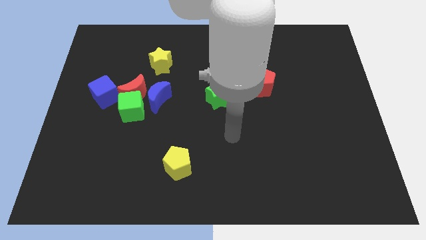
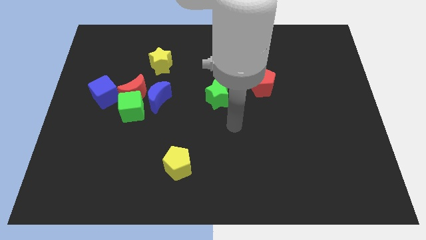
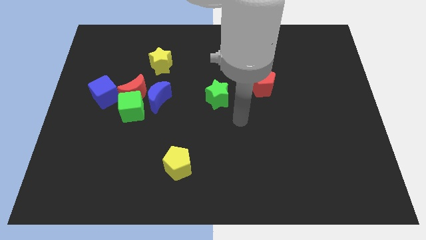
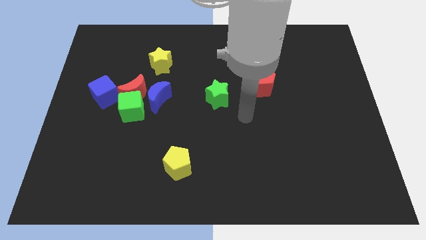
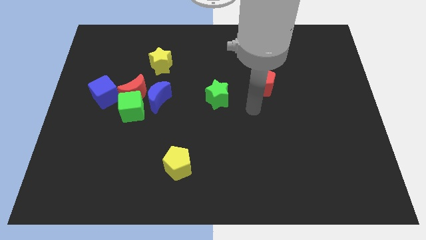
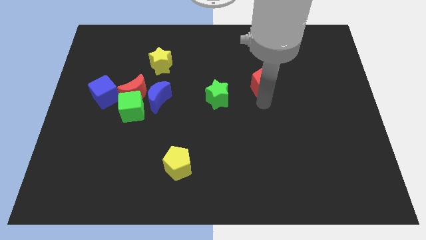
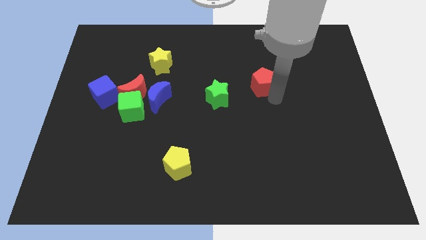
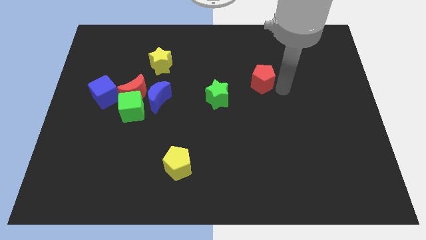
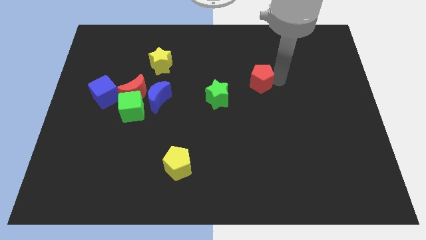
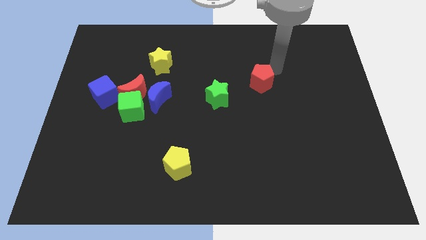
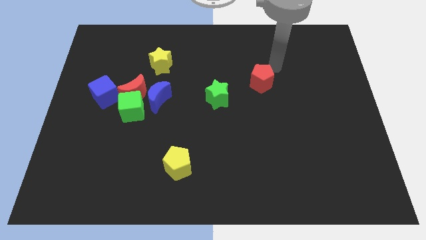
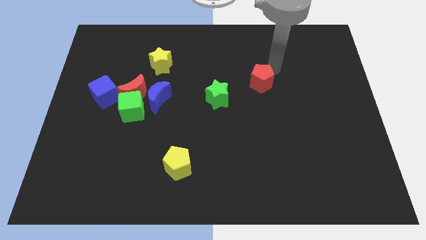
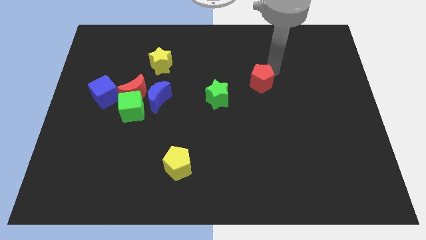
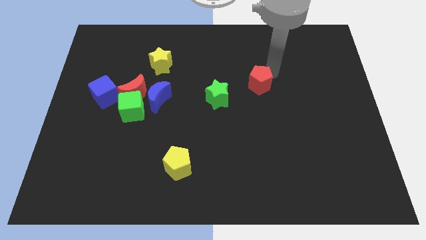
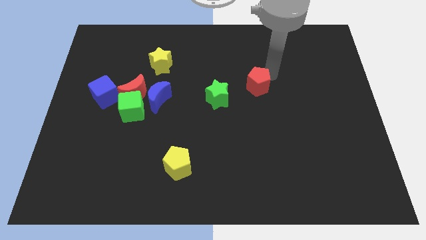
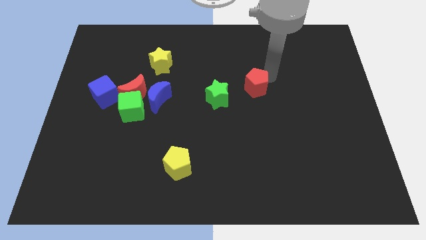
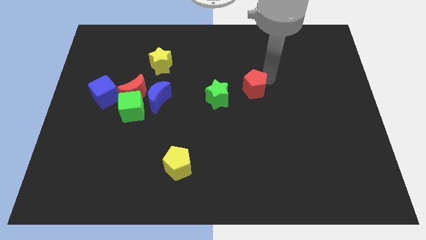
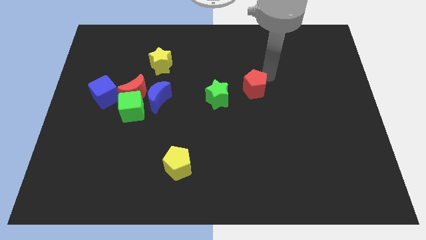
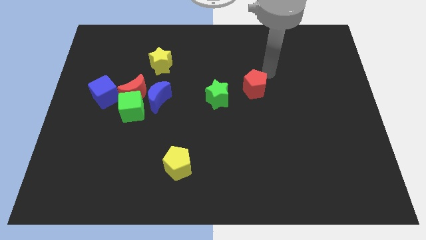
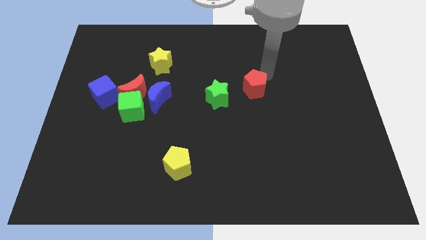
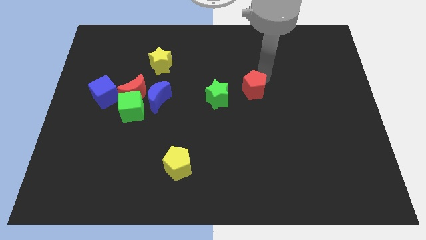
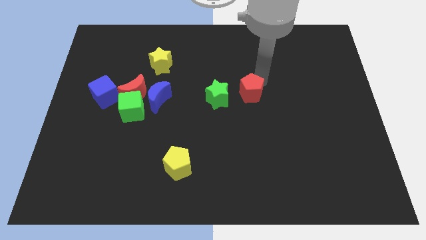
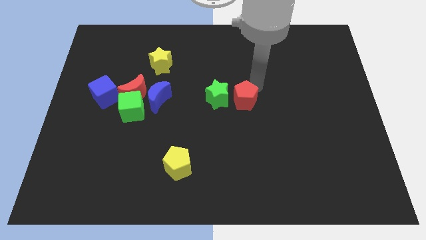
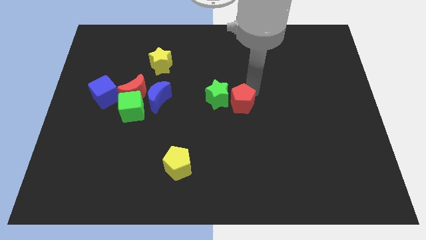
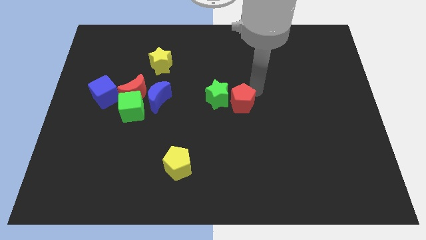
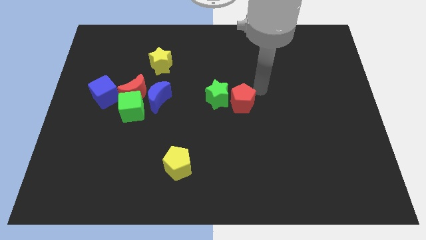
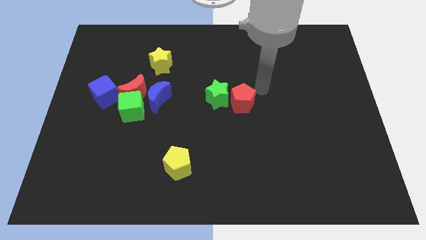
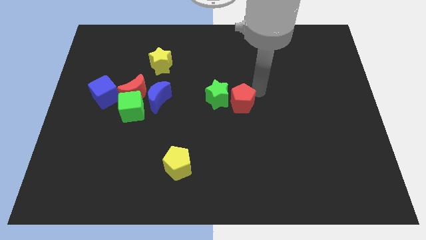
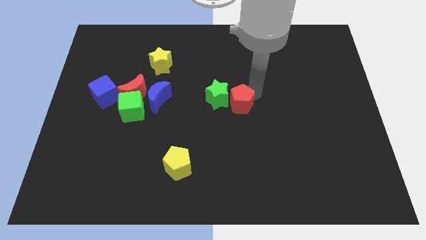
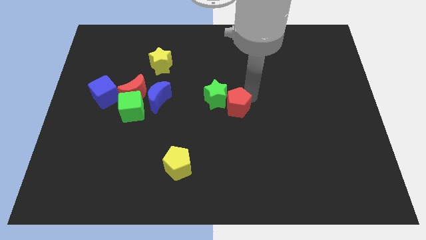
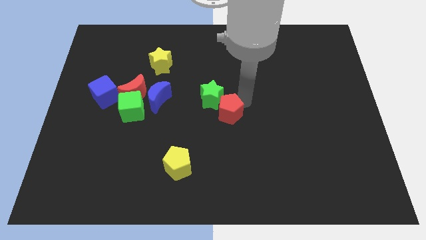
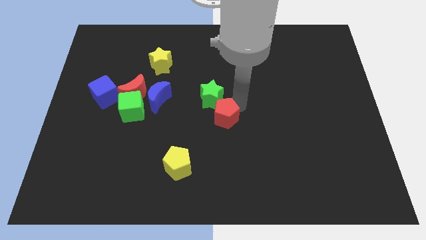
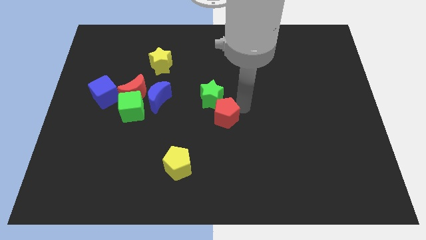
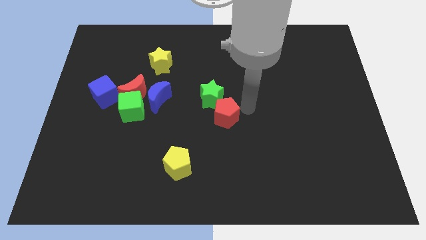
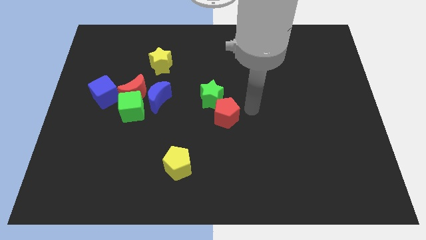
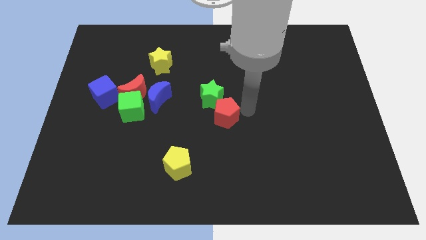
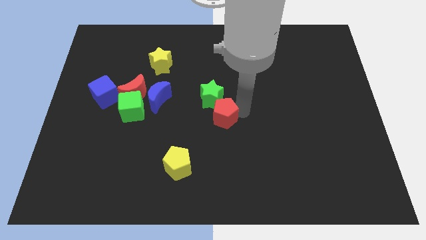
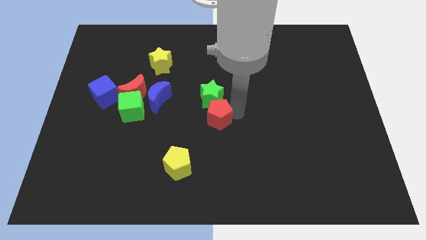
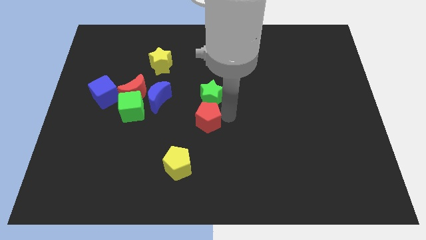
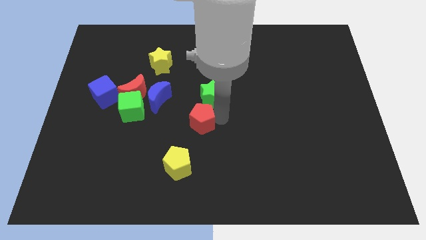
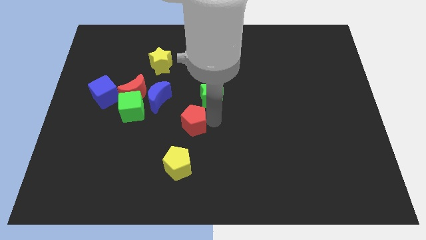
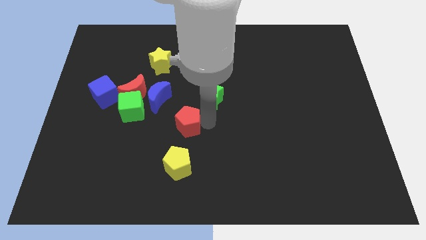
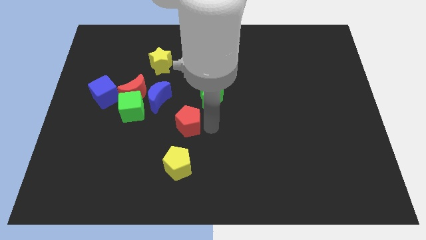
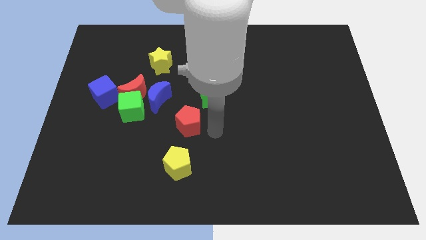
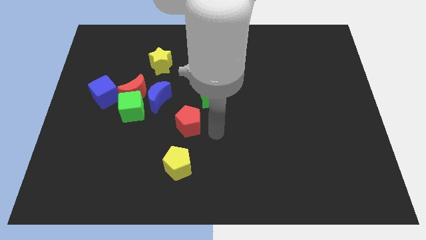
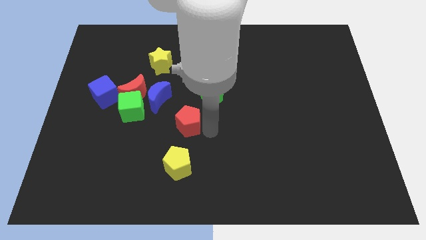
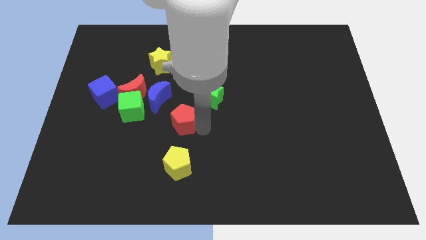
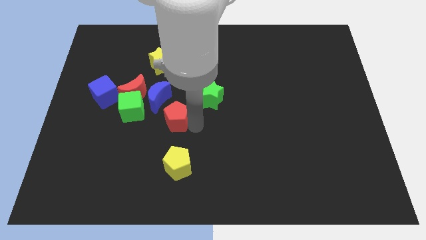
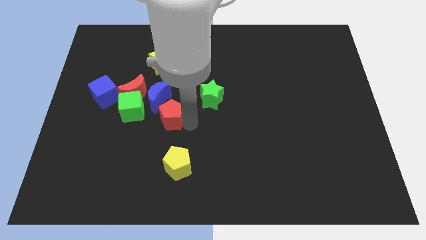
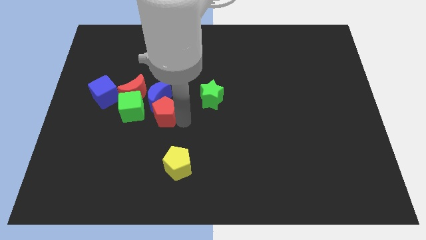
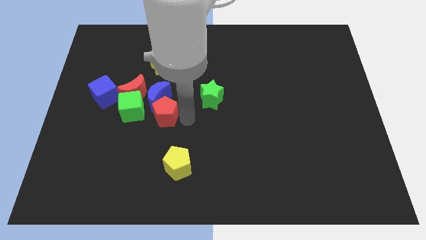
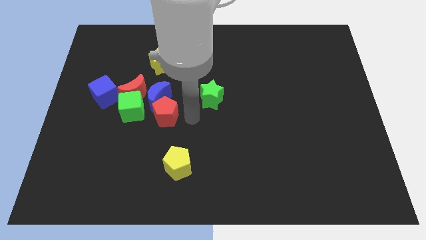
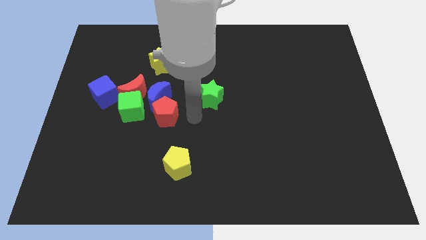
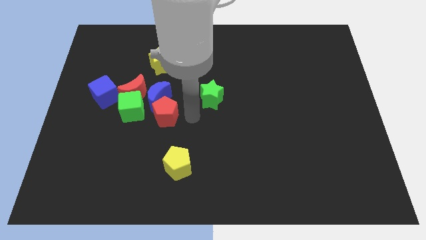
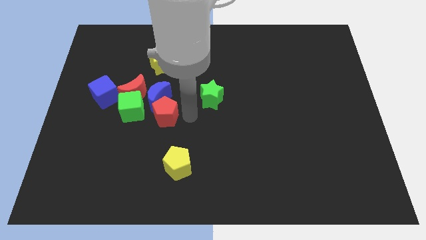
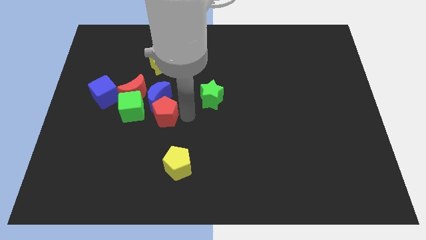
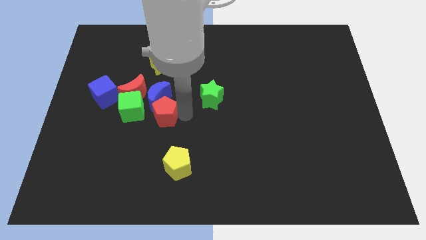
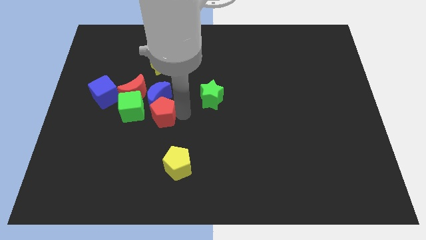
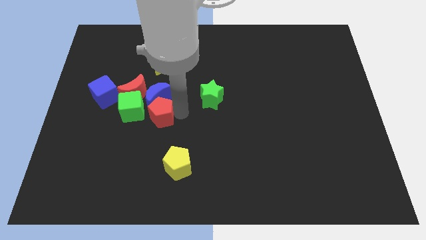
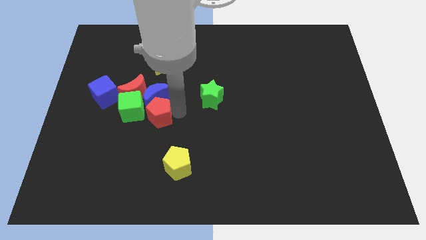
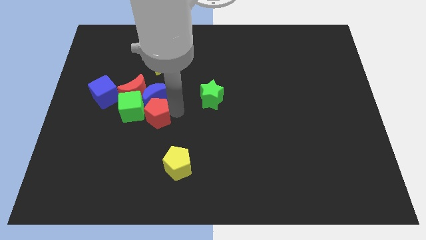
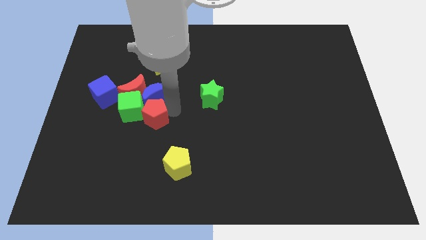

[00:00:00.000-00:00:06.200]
put the red pentagon close to the green cube
